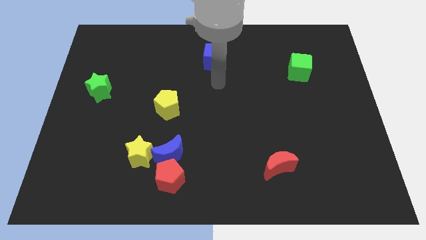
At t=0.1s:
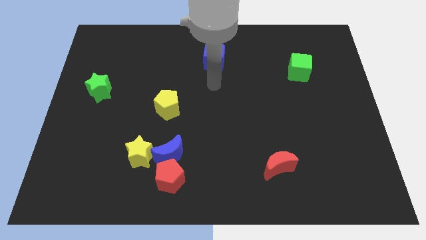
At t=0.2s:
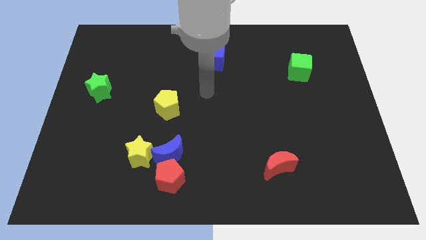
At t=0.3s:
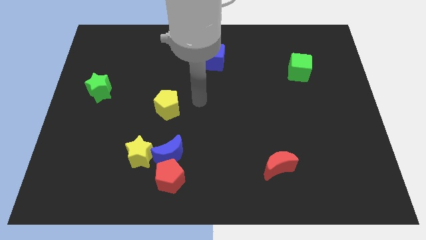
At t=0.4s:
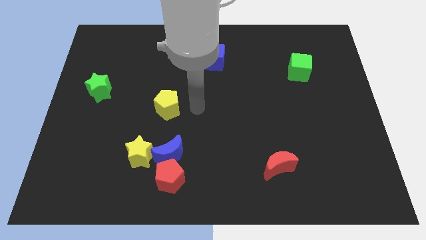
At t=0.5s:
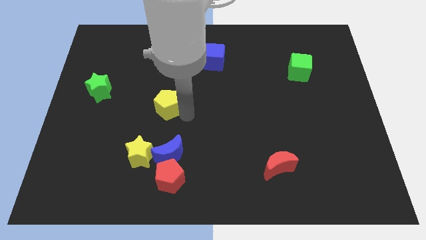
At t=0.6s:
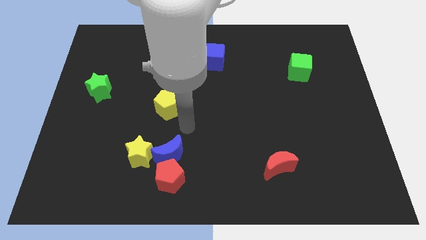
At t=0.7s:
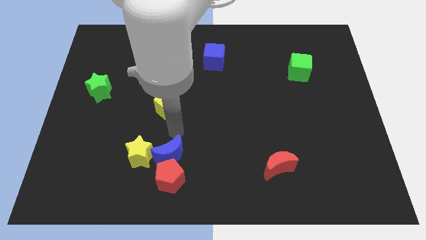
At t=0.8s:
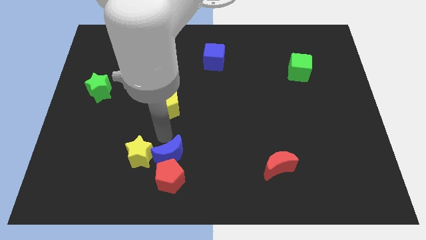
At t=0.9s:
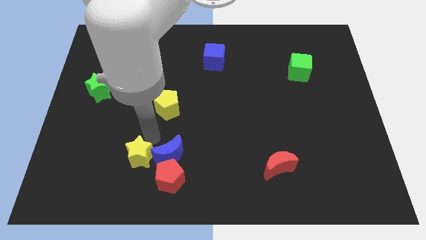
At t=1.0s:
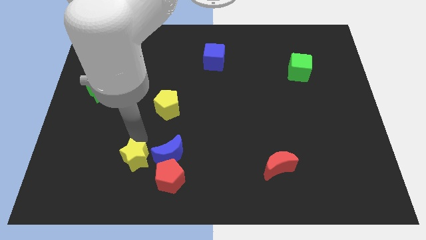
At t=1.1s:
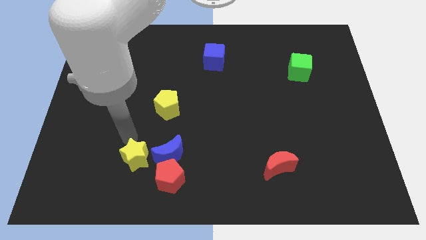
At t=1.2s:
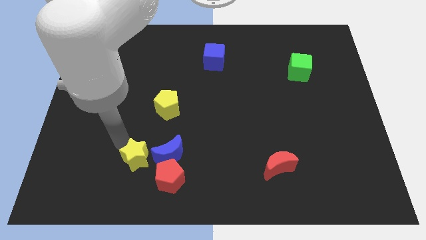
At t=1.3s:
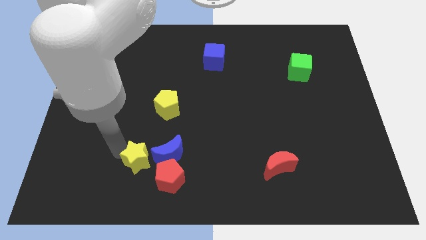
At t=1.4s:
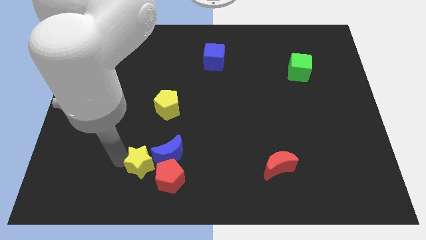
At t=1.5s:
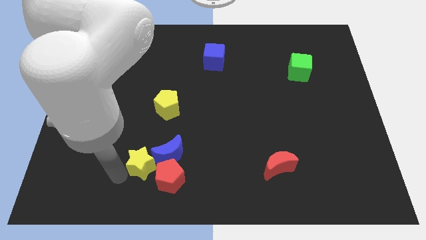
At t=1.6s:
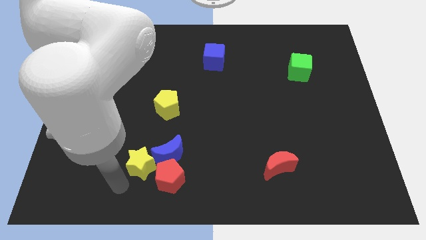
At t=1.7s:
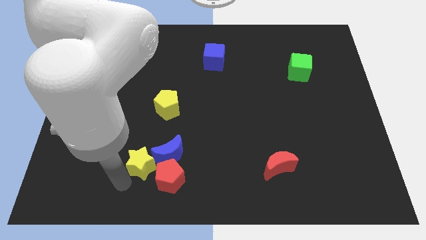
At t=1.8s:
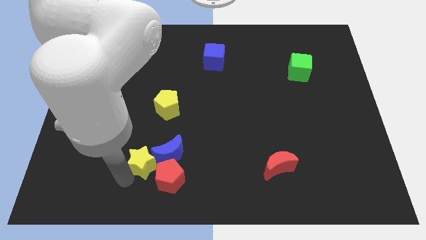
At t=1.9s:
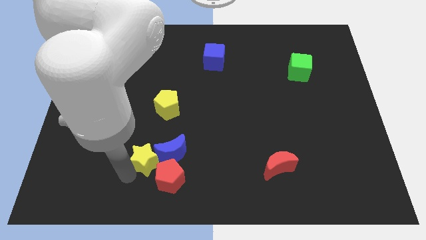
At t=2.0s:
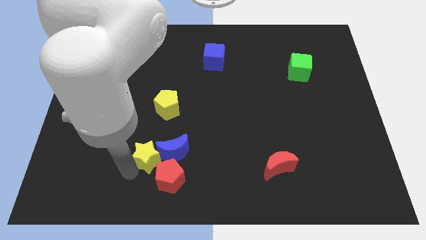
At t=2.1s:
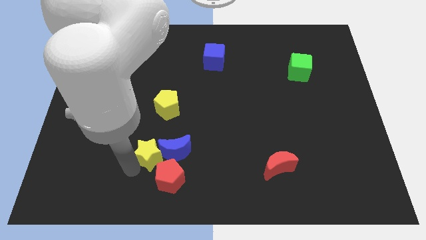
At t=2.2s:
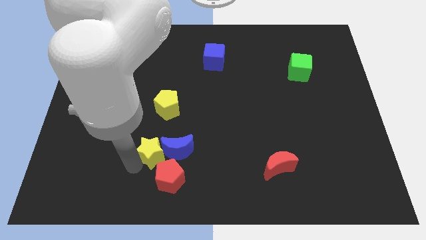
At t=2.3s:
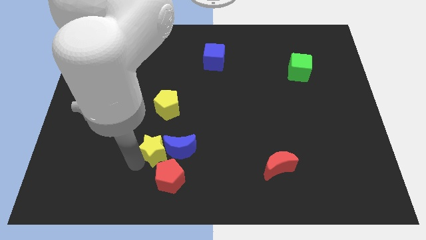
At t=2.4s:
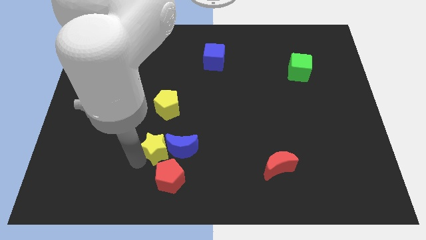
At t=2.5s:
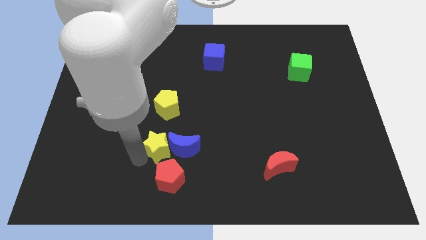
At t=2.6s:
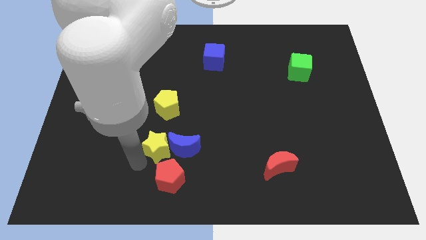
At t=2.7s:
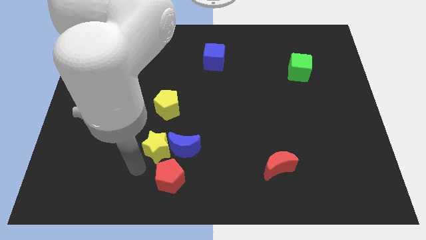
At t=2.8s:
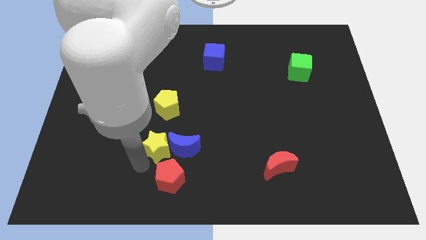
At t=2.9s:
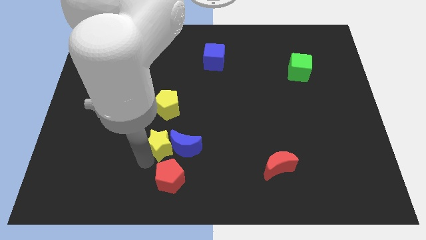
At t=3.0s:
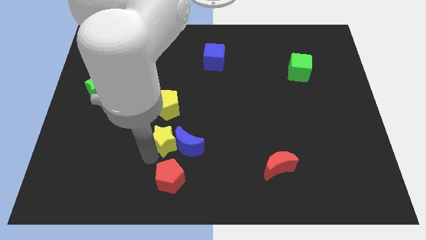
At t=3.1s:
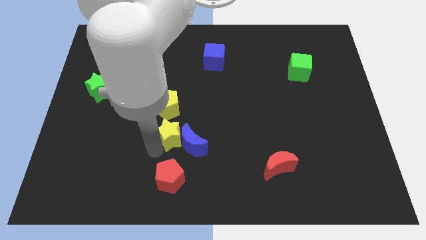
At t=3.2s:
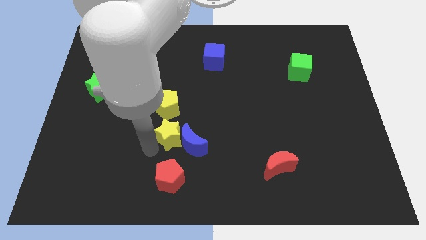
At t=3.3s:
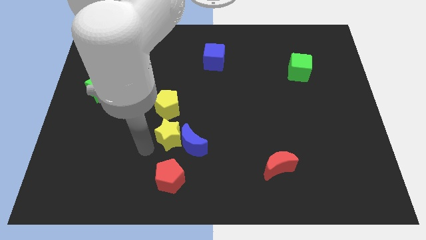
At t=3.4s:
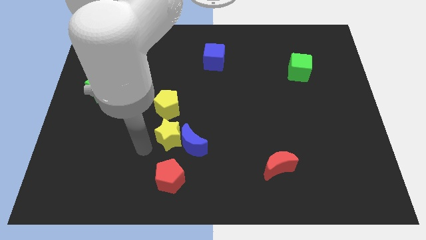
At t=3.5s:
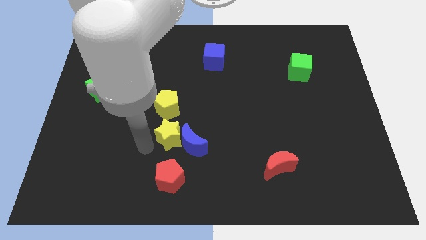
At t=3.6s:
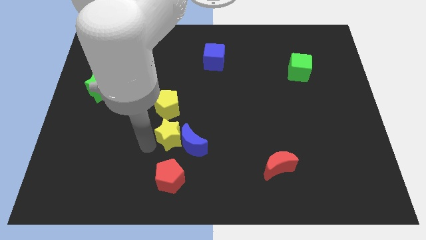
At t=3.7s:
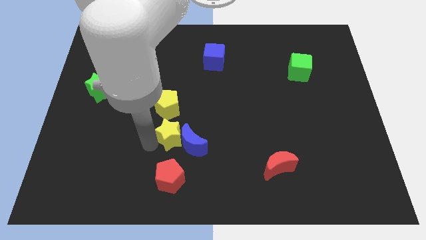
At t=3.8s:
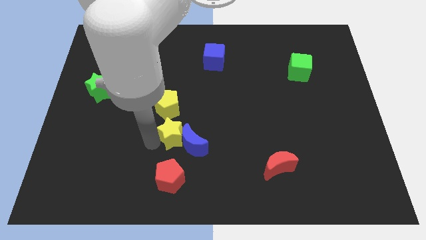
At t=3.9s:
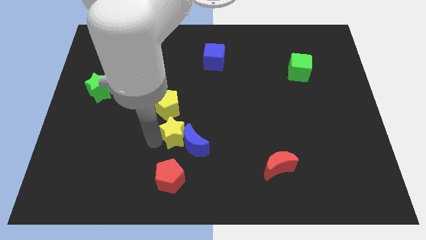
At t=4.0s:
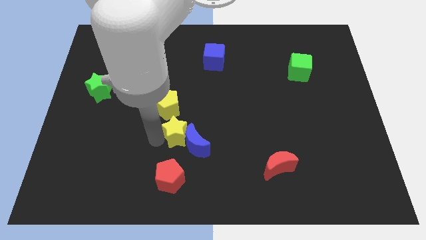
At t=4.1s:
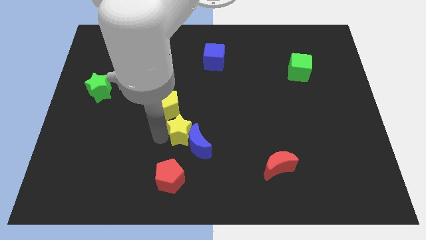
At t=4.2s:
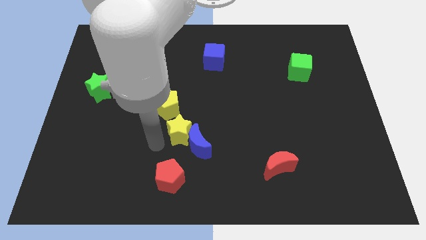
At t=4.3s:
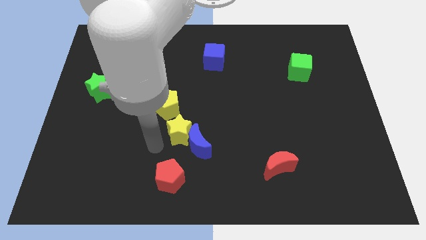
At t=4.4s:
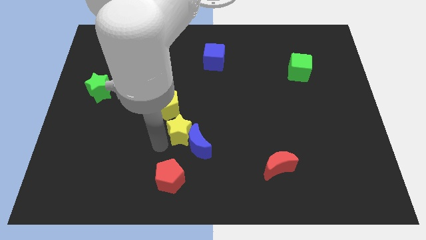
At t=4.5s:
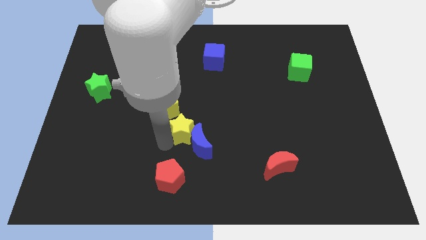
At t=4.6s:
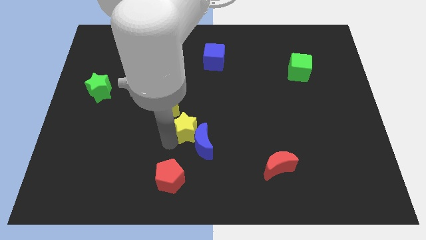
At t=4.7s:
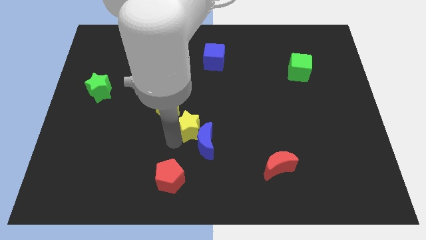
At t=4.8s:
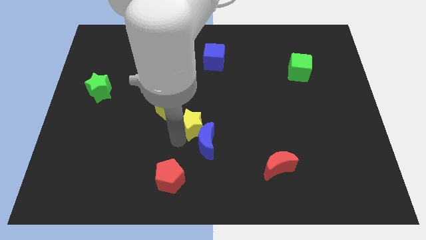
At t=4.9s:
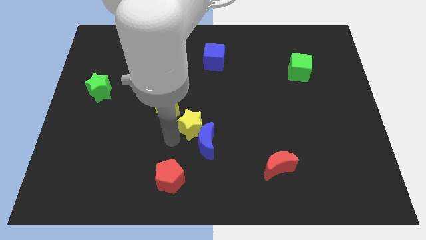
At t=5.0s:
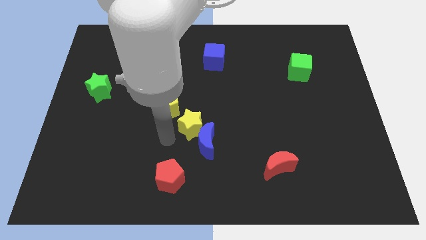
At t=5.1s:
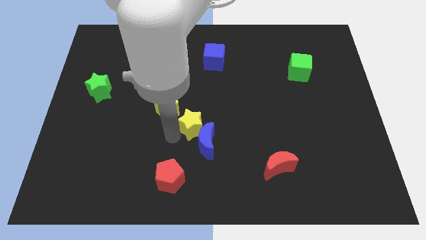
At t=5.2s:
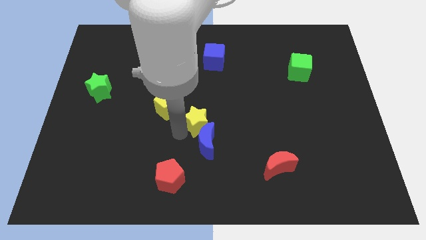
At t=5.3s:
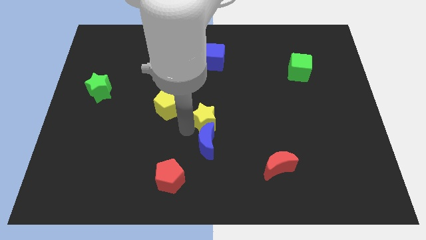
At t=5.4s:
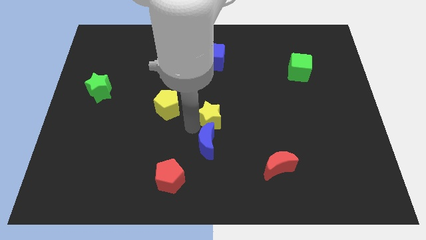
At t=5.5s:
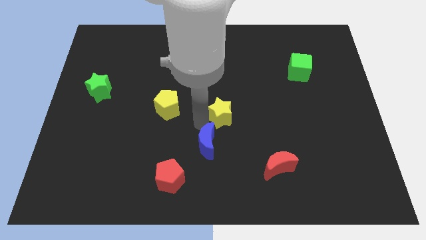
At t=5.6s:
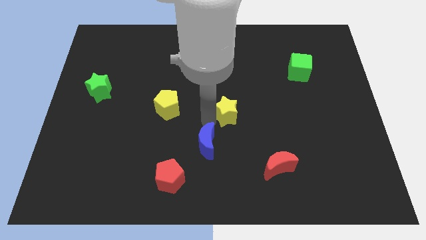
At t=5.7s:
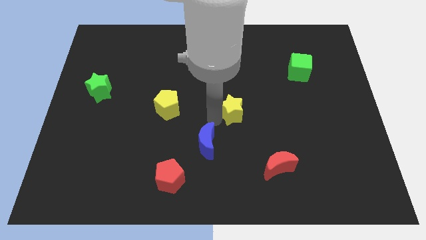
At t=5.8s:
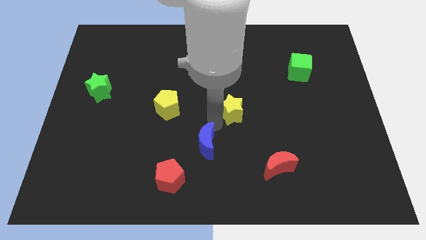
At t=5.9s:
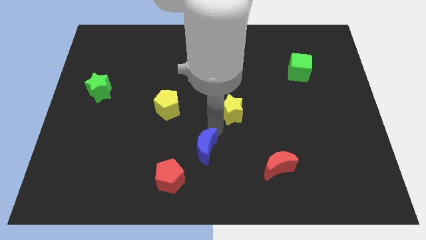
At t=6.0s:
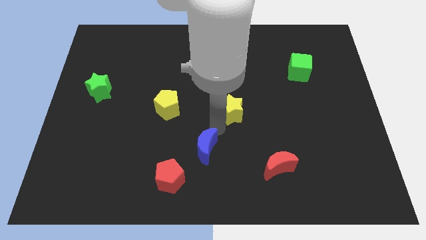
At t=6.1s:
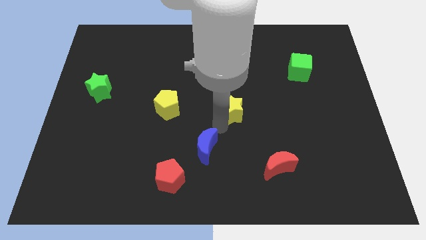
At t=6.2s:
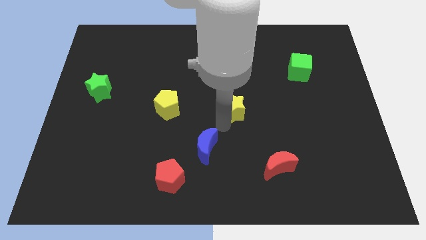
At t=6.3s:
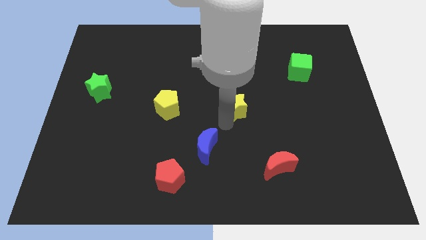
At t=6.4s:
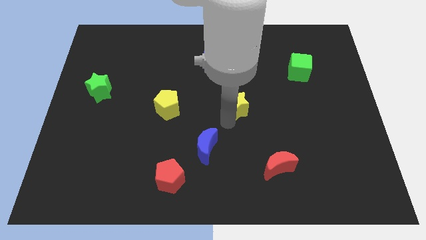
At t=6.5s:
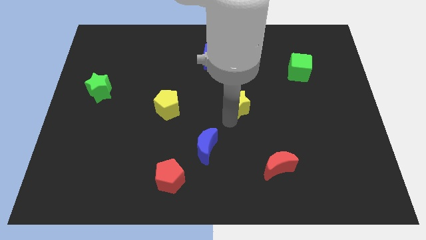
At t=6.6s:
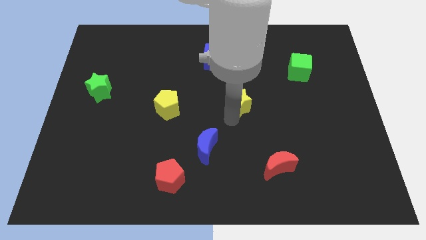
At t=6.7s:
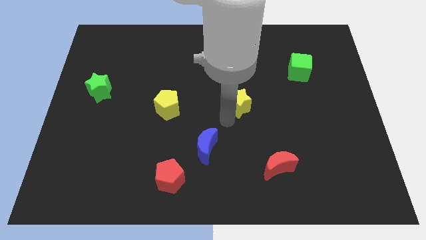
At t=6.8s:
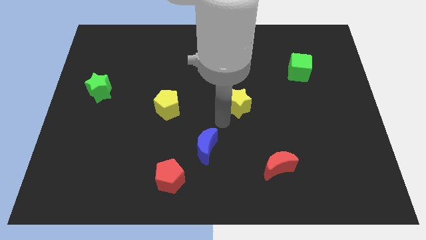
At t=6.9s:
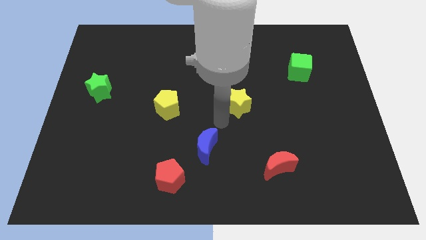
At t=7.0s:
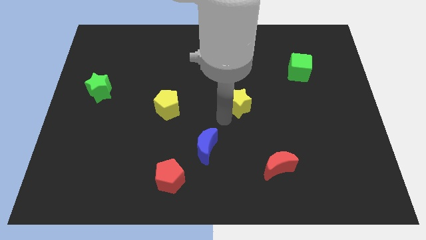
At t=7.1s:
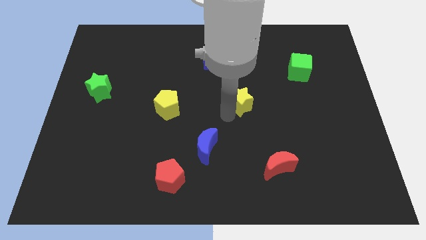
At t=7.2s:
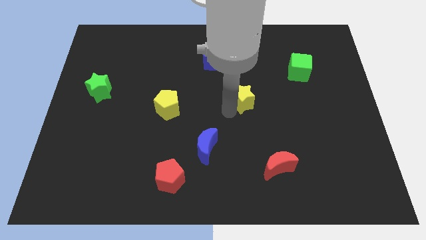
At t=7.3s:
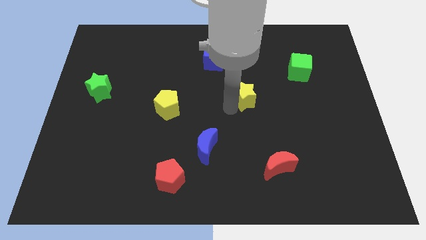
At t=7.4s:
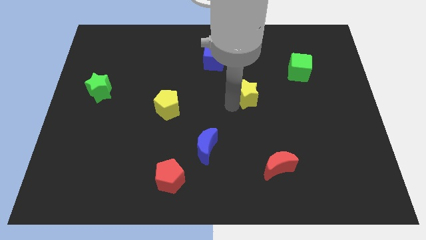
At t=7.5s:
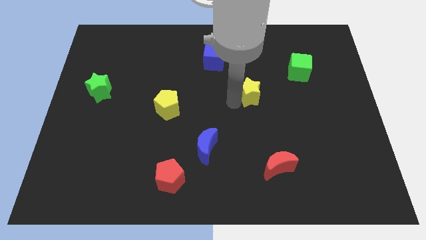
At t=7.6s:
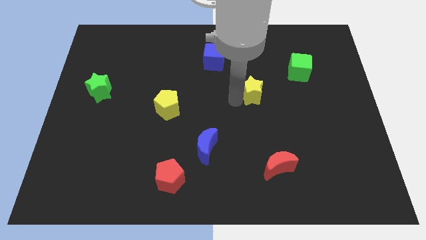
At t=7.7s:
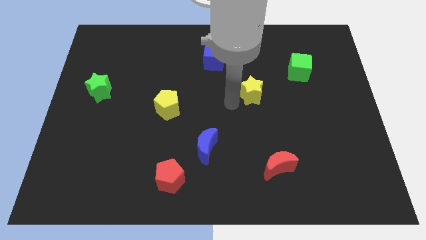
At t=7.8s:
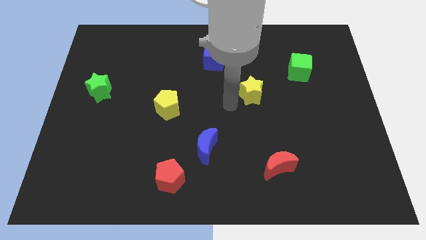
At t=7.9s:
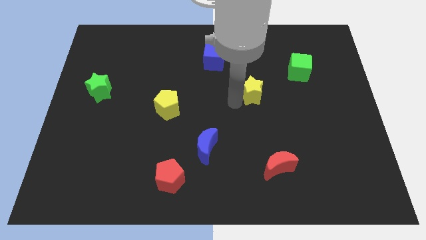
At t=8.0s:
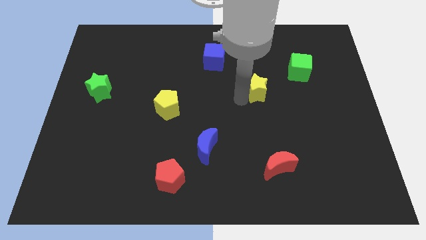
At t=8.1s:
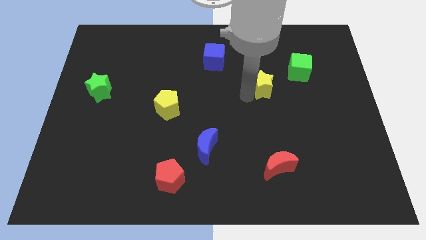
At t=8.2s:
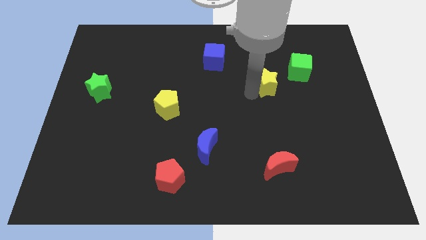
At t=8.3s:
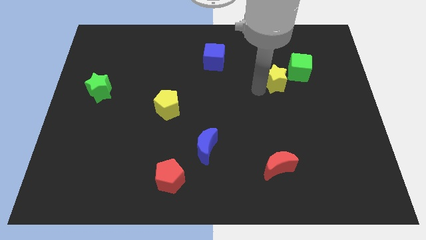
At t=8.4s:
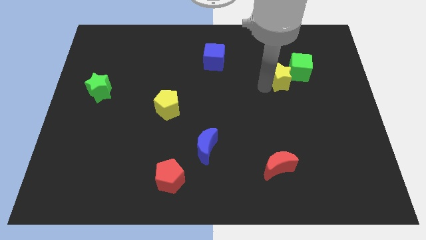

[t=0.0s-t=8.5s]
slide the yellow star close to the green cube
